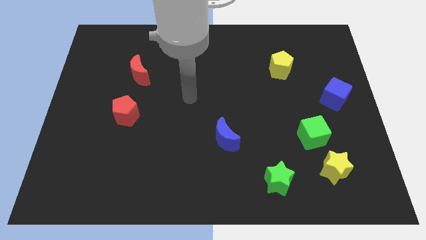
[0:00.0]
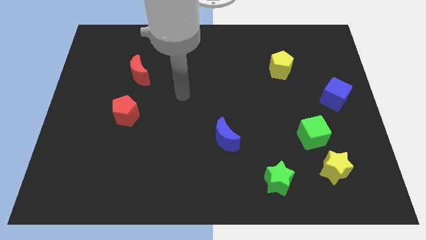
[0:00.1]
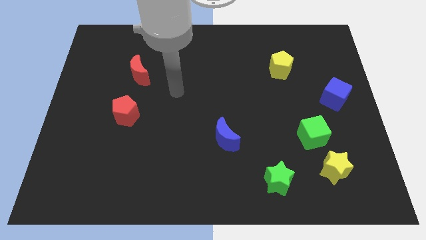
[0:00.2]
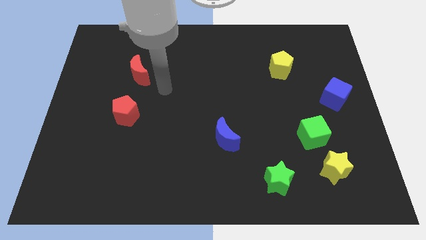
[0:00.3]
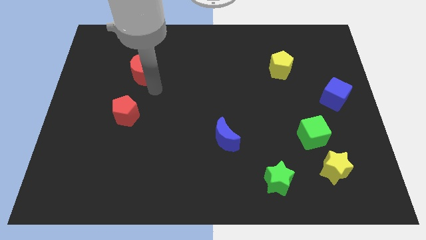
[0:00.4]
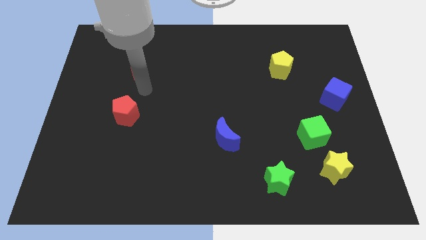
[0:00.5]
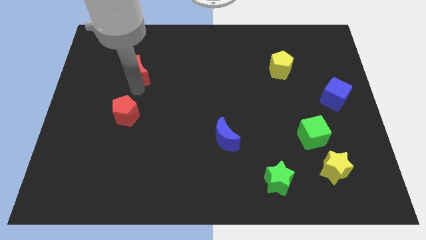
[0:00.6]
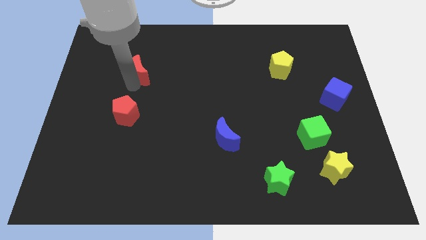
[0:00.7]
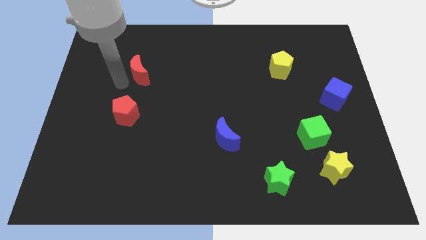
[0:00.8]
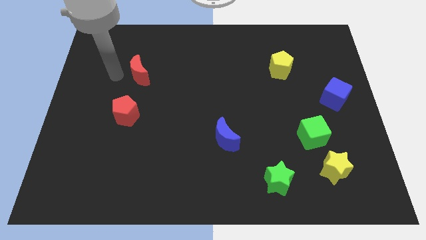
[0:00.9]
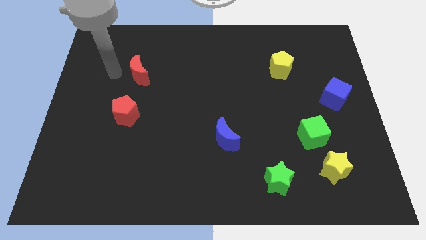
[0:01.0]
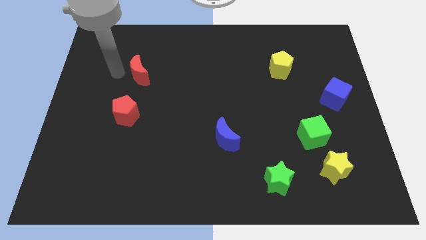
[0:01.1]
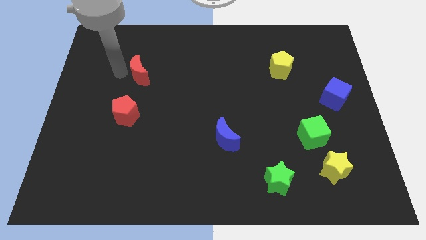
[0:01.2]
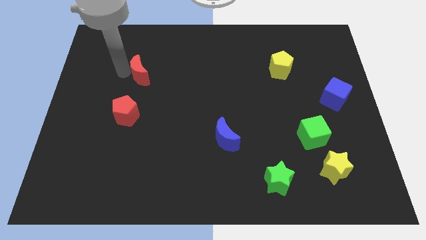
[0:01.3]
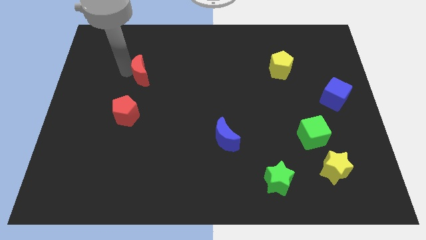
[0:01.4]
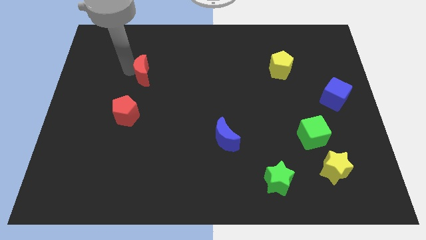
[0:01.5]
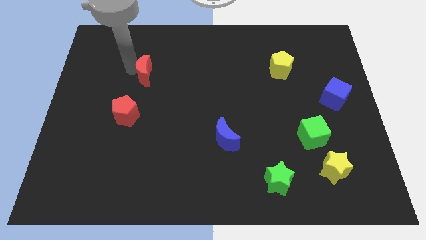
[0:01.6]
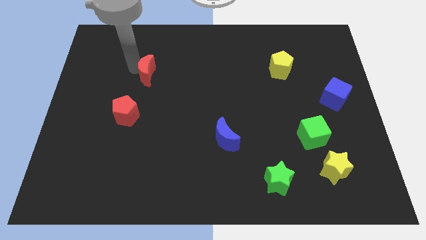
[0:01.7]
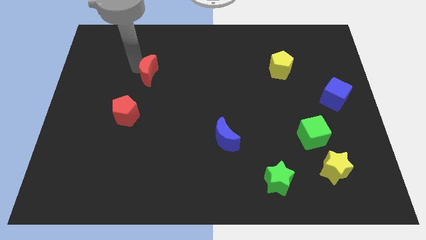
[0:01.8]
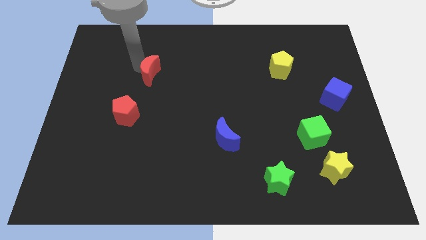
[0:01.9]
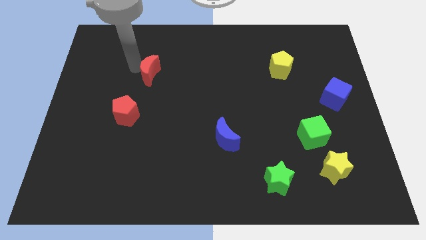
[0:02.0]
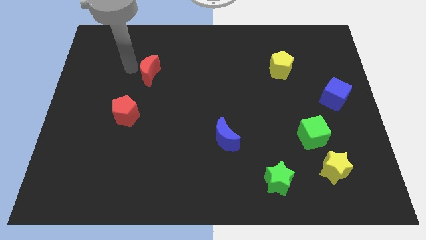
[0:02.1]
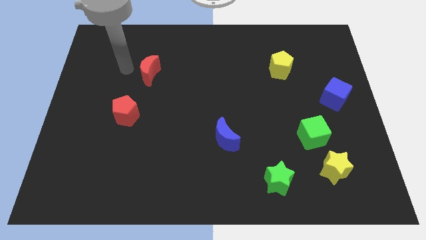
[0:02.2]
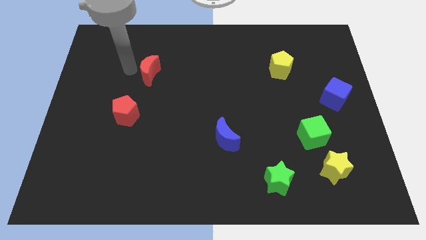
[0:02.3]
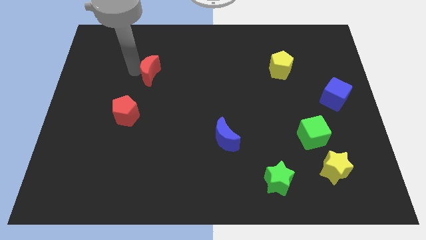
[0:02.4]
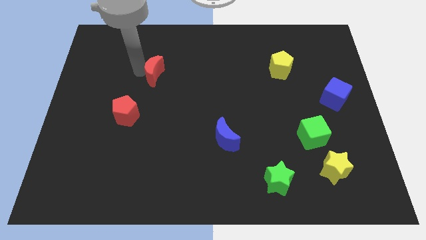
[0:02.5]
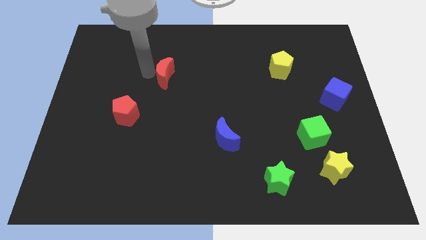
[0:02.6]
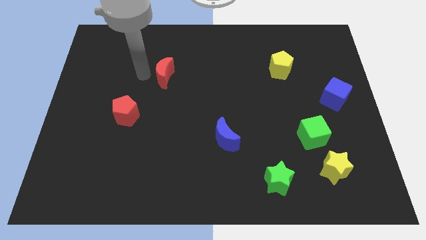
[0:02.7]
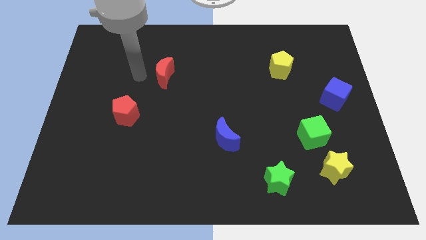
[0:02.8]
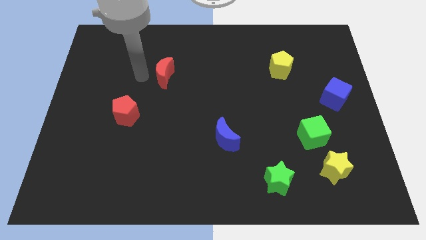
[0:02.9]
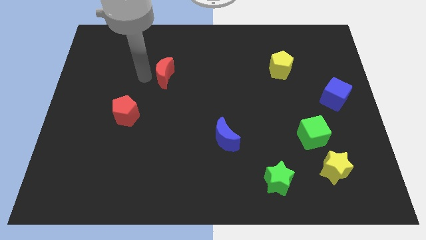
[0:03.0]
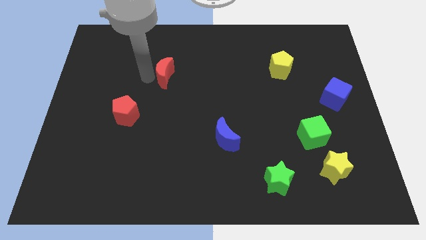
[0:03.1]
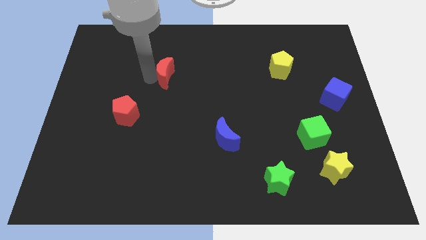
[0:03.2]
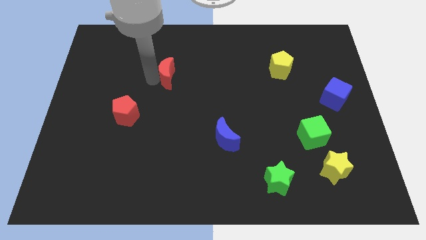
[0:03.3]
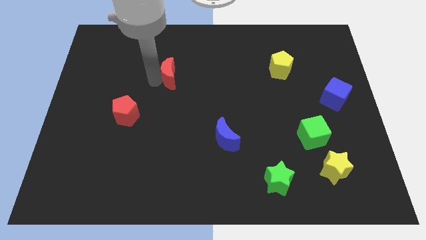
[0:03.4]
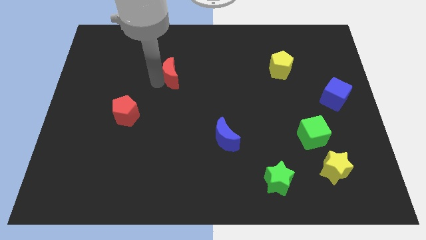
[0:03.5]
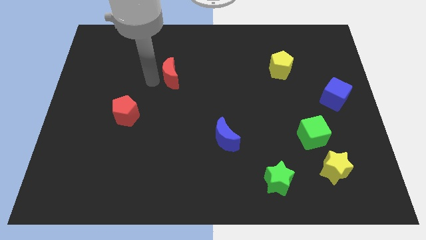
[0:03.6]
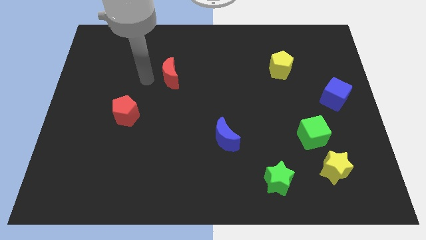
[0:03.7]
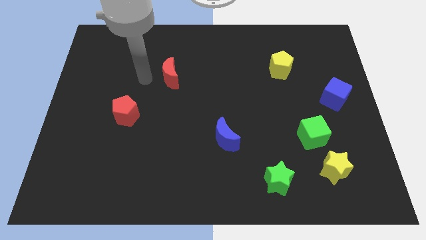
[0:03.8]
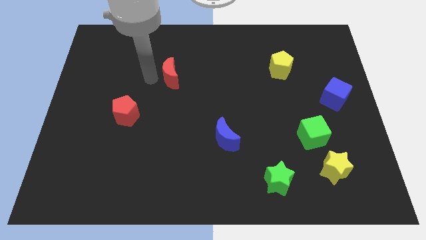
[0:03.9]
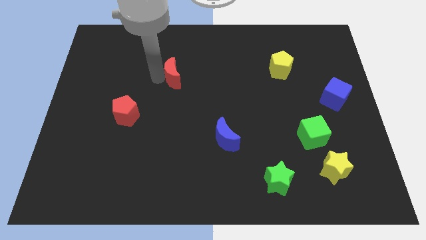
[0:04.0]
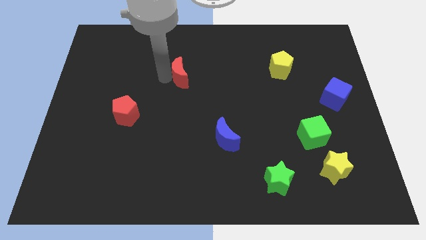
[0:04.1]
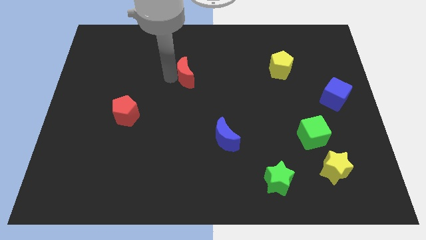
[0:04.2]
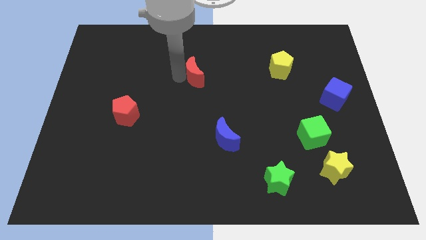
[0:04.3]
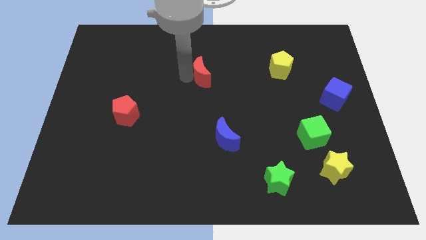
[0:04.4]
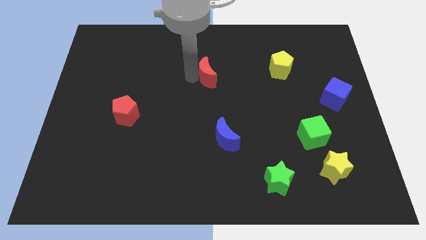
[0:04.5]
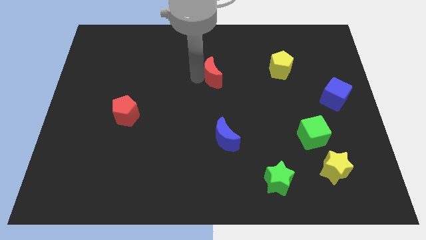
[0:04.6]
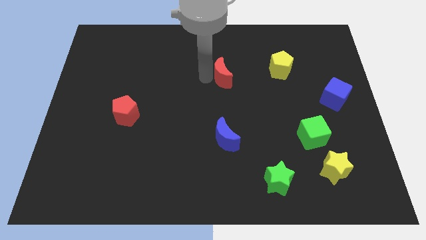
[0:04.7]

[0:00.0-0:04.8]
push the red moon right

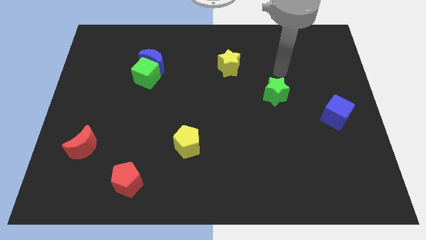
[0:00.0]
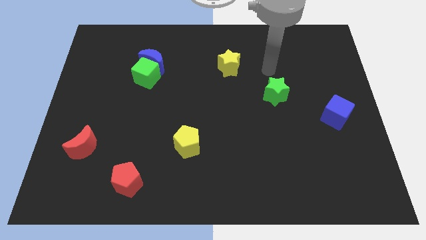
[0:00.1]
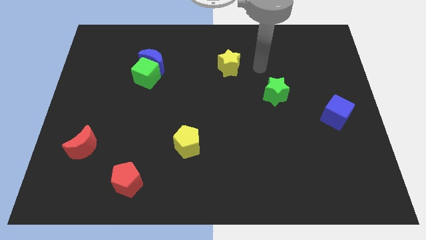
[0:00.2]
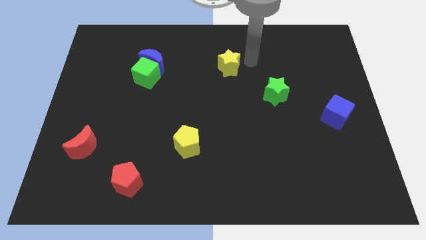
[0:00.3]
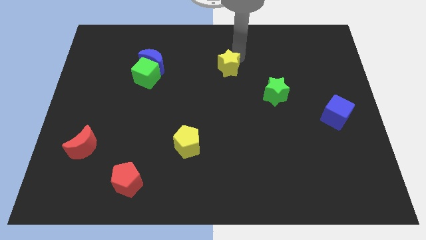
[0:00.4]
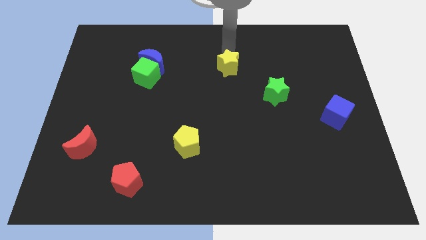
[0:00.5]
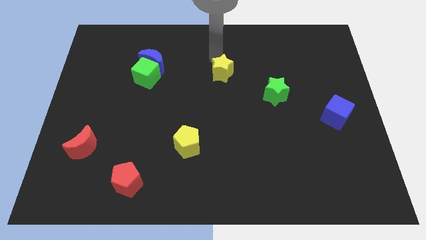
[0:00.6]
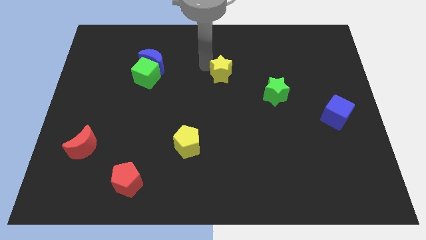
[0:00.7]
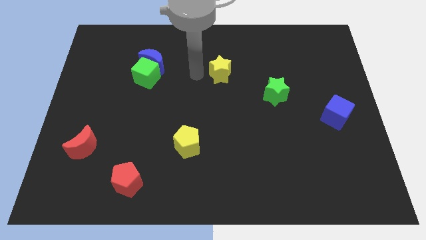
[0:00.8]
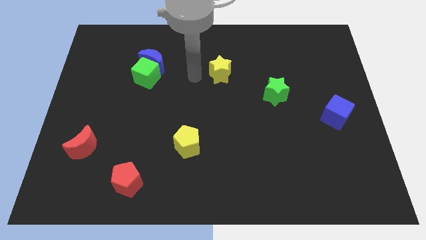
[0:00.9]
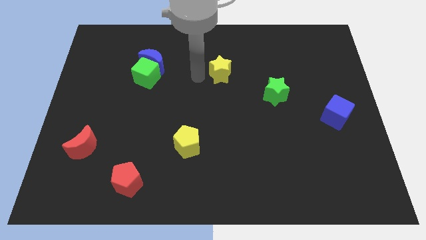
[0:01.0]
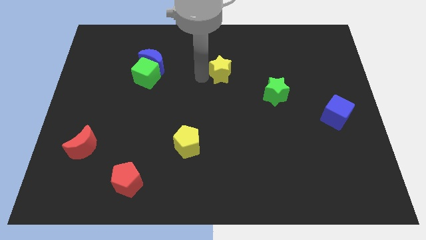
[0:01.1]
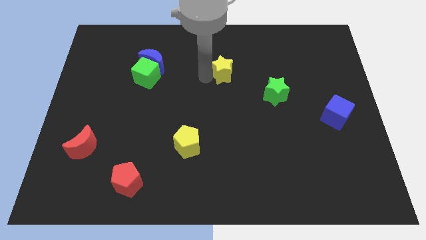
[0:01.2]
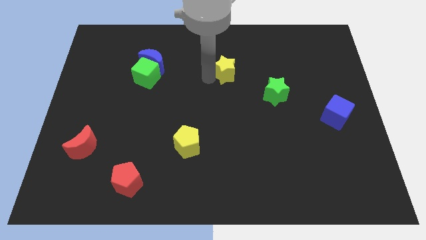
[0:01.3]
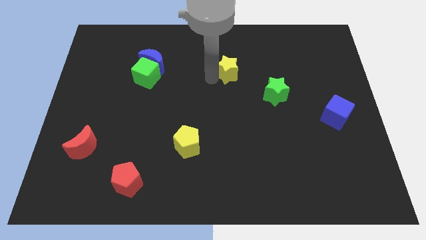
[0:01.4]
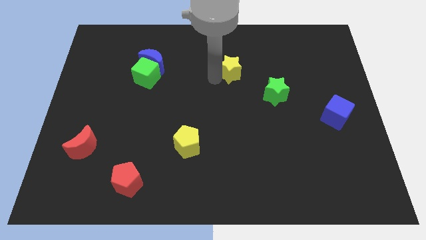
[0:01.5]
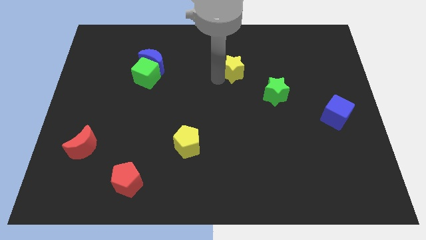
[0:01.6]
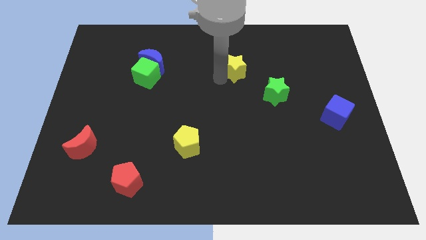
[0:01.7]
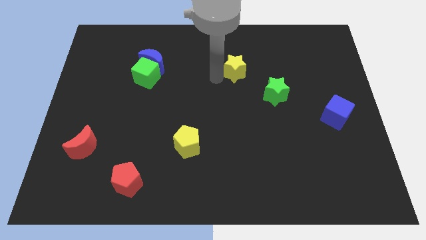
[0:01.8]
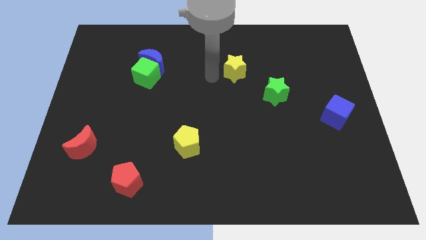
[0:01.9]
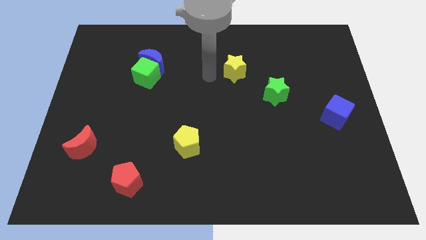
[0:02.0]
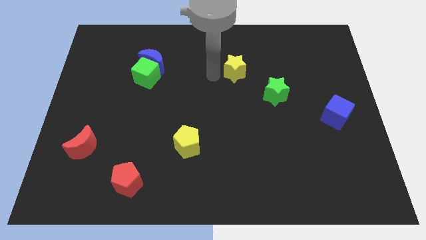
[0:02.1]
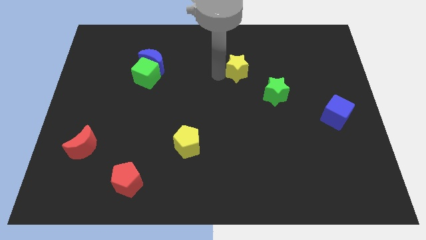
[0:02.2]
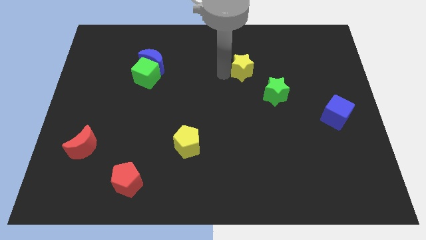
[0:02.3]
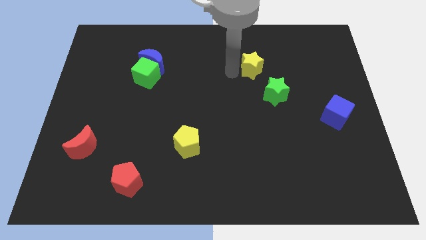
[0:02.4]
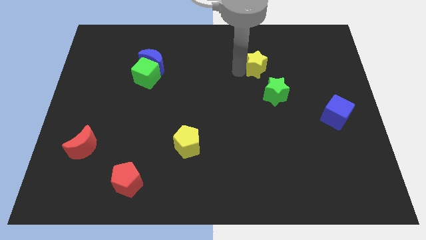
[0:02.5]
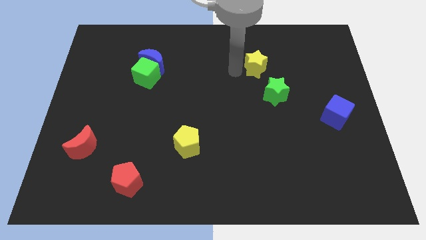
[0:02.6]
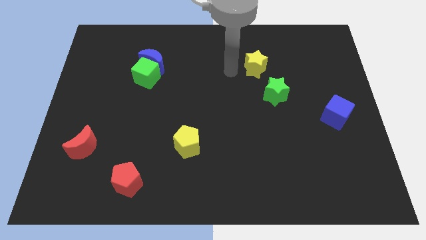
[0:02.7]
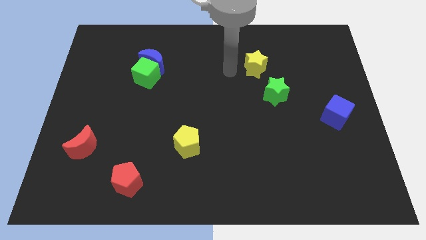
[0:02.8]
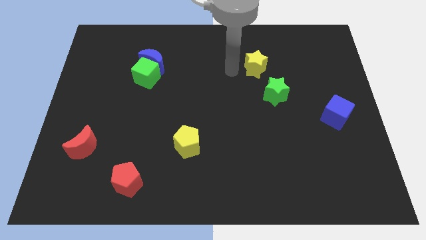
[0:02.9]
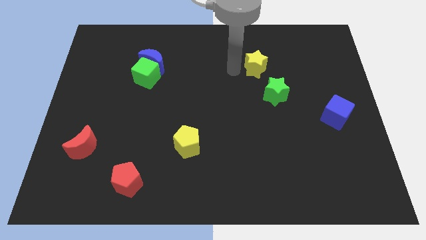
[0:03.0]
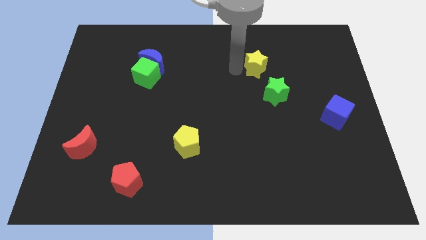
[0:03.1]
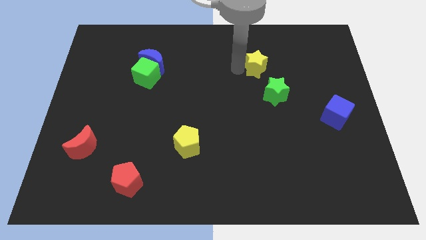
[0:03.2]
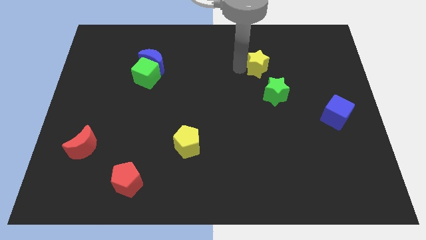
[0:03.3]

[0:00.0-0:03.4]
slightly push the yellow star to the right
